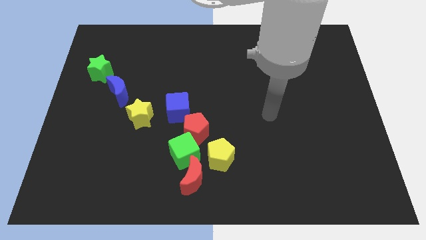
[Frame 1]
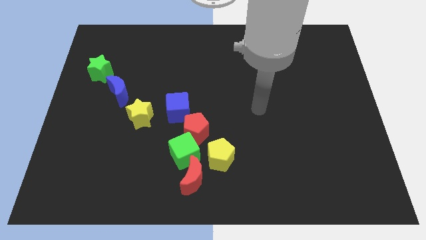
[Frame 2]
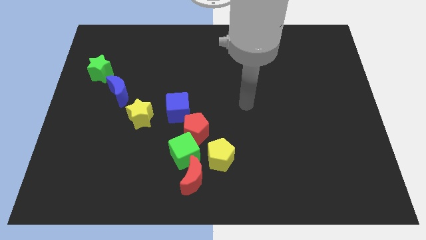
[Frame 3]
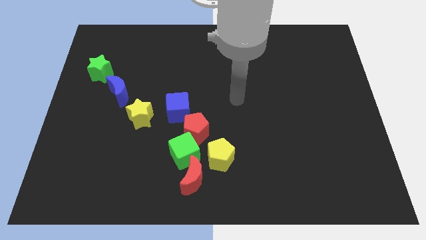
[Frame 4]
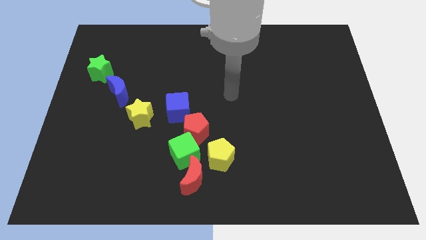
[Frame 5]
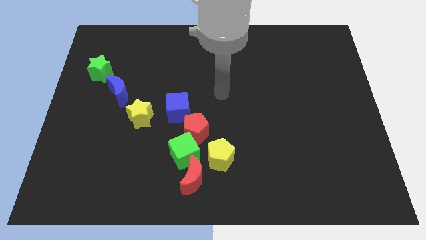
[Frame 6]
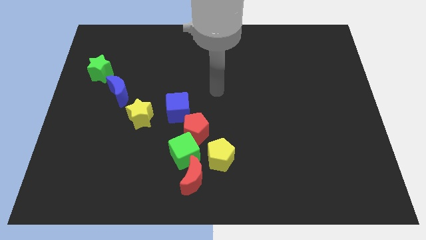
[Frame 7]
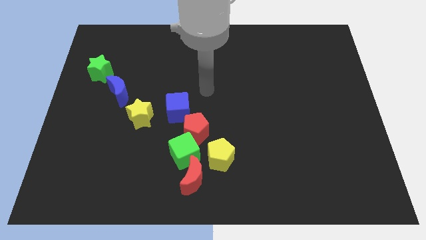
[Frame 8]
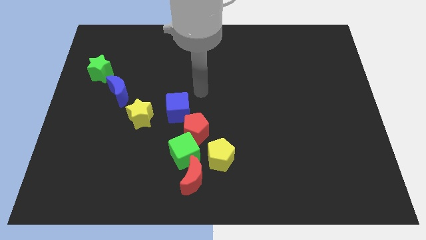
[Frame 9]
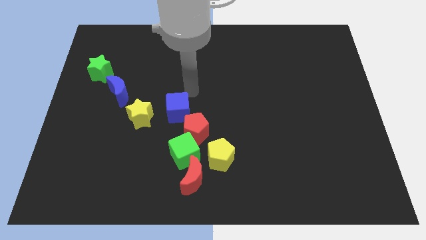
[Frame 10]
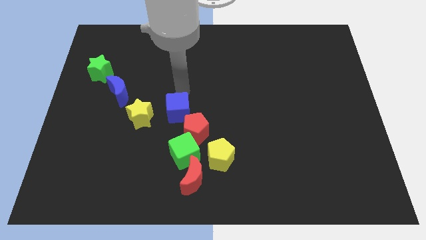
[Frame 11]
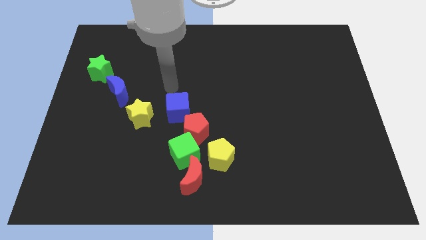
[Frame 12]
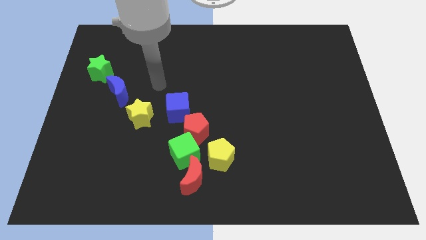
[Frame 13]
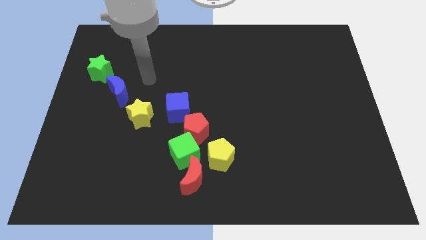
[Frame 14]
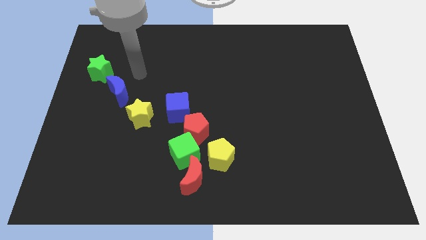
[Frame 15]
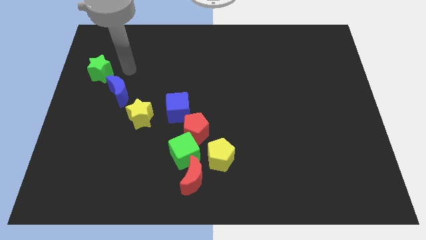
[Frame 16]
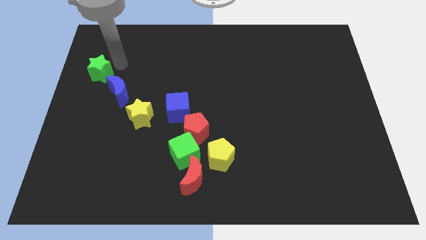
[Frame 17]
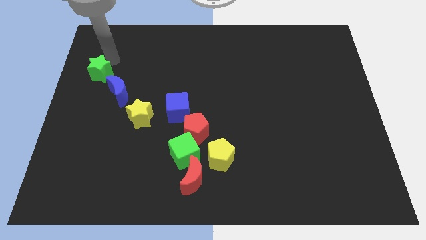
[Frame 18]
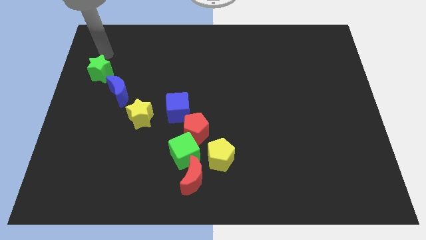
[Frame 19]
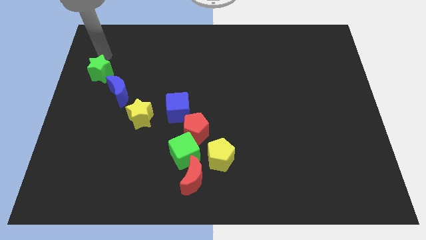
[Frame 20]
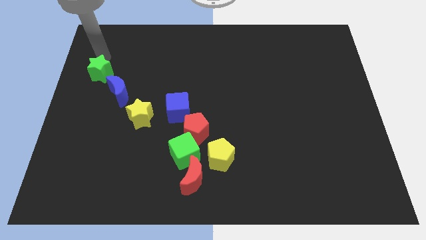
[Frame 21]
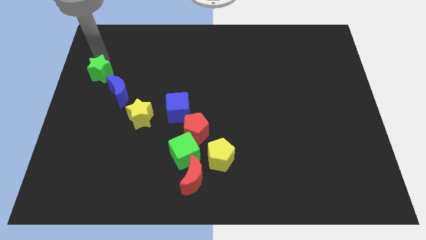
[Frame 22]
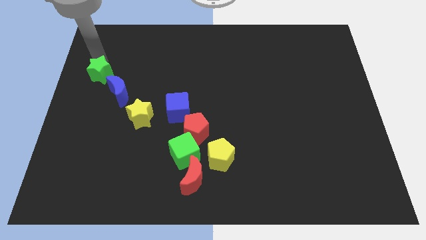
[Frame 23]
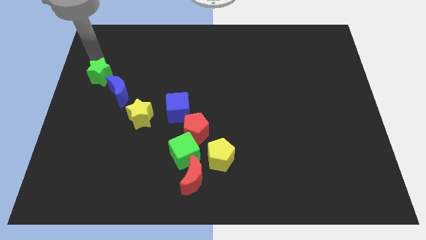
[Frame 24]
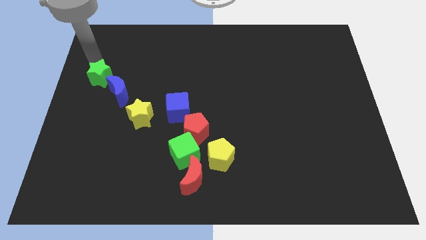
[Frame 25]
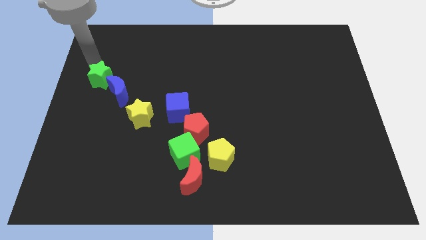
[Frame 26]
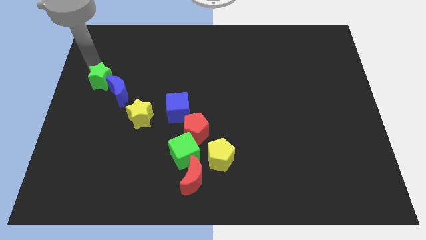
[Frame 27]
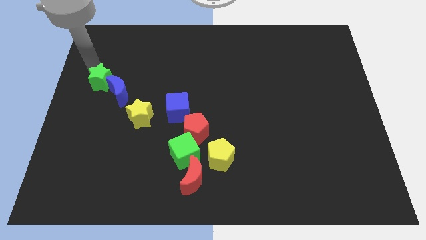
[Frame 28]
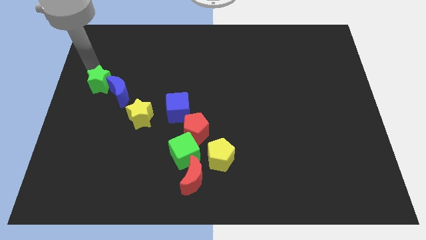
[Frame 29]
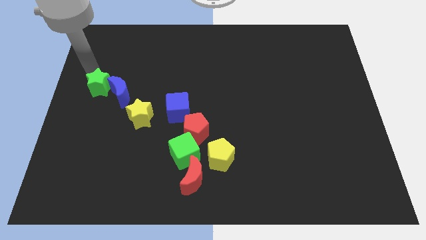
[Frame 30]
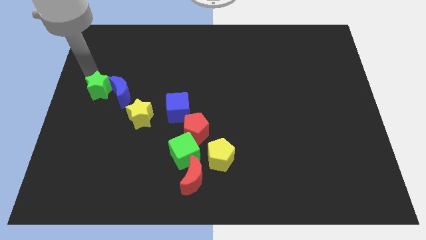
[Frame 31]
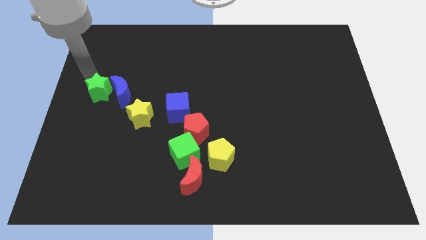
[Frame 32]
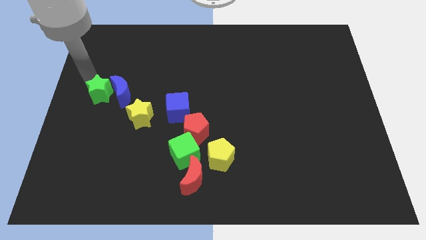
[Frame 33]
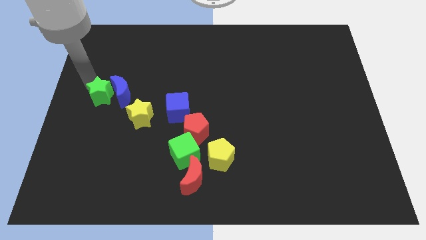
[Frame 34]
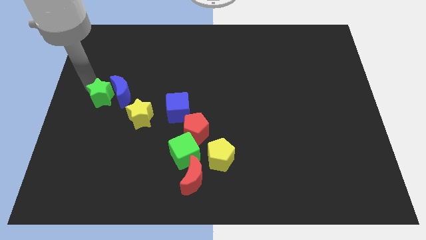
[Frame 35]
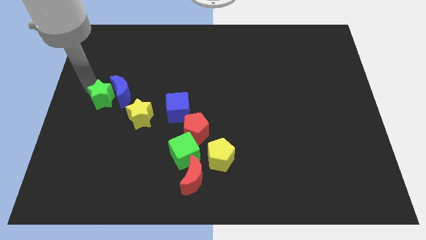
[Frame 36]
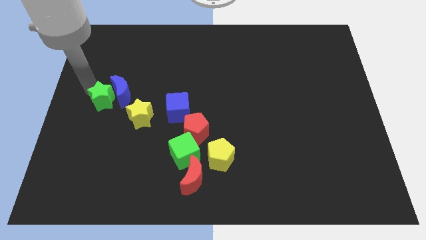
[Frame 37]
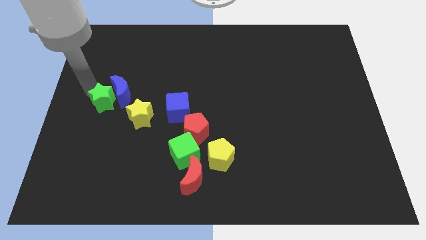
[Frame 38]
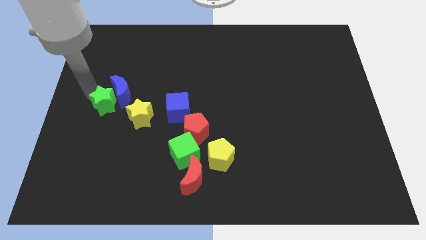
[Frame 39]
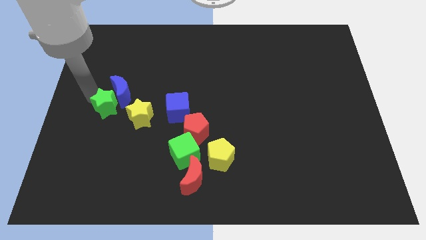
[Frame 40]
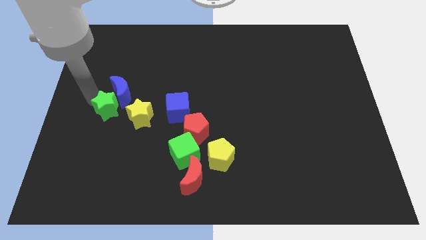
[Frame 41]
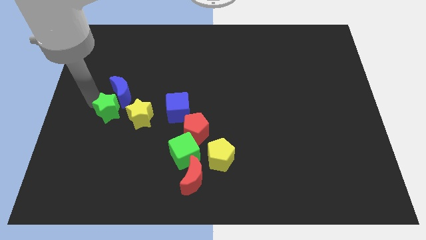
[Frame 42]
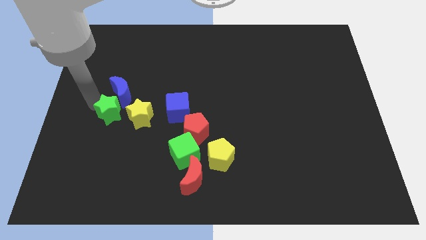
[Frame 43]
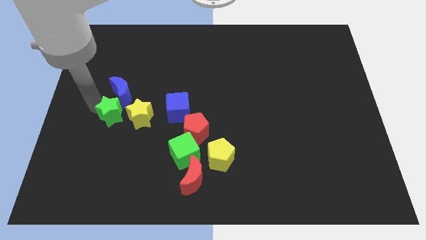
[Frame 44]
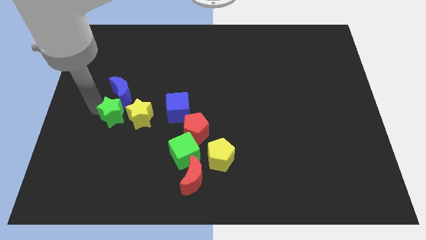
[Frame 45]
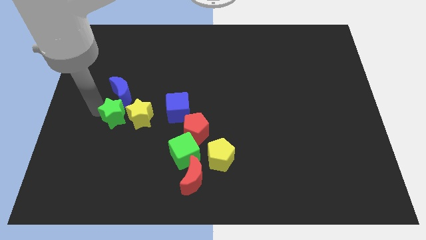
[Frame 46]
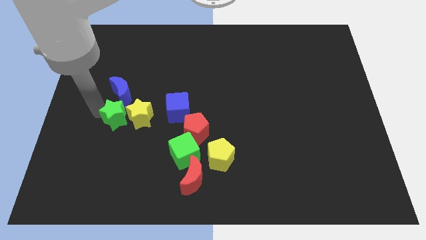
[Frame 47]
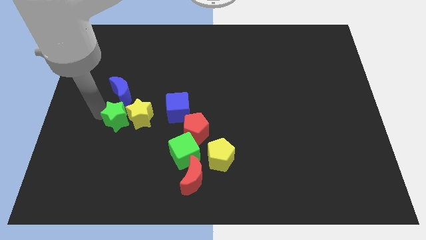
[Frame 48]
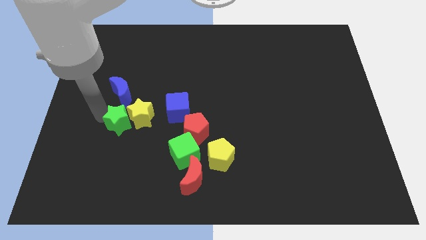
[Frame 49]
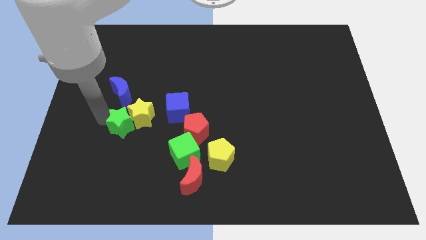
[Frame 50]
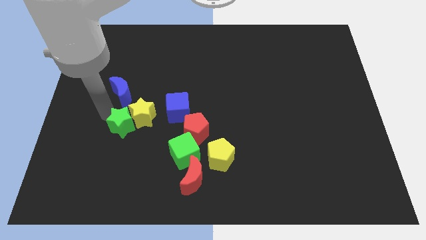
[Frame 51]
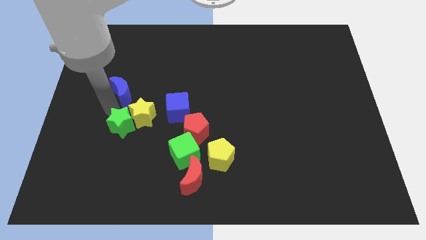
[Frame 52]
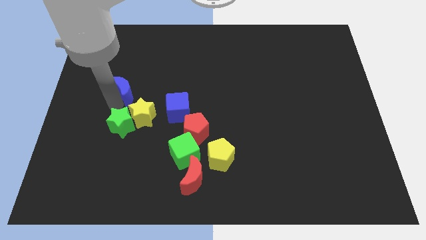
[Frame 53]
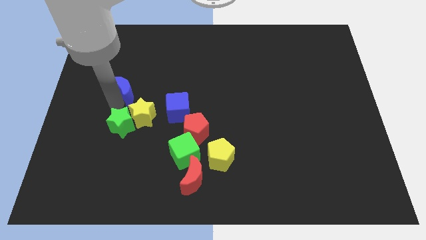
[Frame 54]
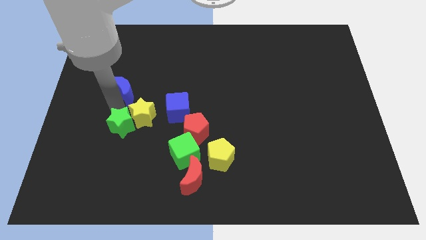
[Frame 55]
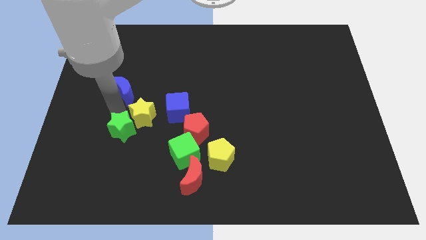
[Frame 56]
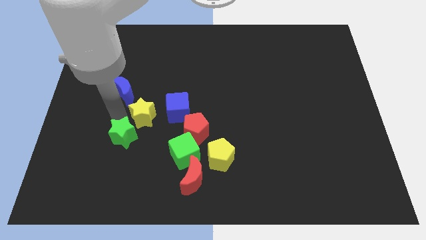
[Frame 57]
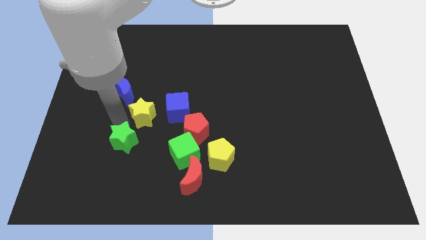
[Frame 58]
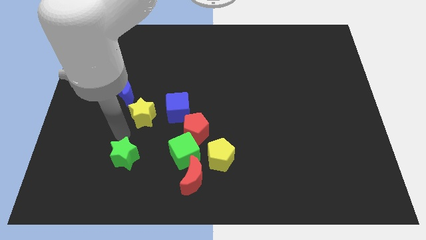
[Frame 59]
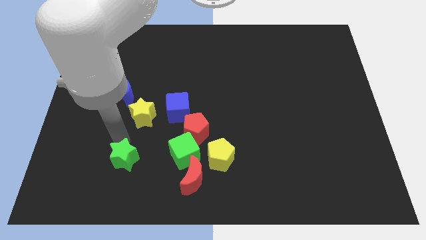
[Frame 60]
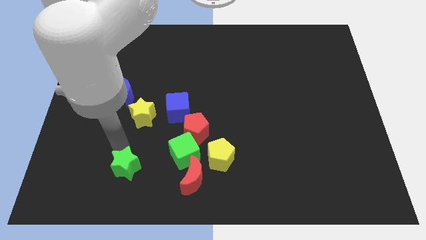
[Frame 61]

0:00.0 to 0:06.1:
push the green star just left of the red moon

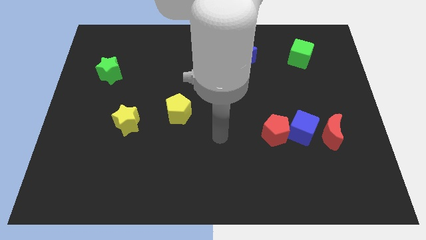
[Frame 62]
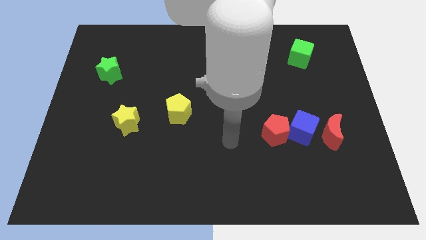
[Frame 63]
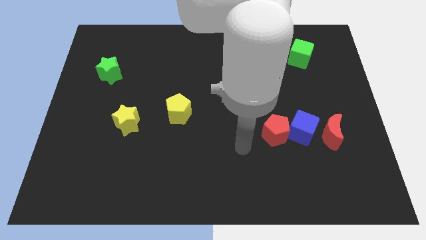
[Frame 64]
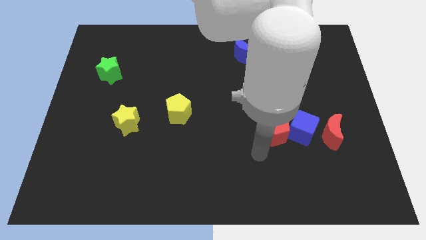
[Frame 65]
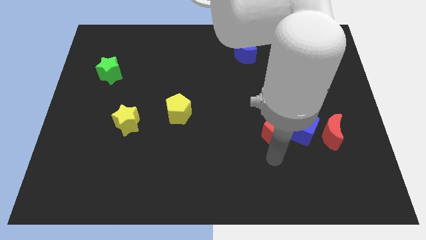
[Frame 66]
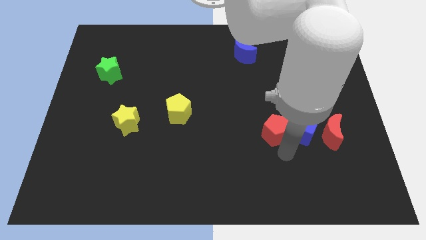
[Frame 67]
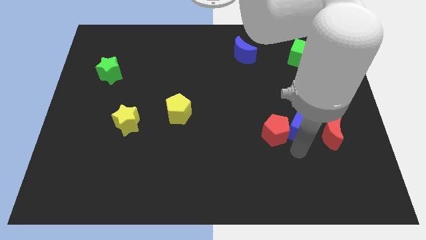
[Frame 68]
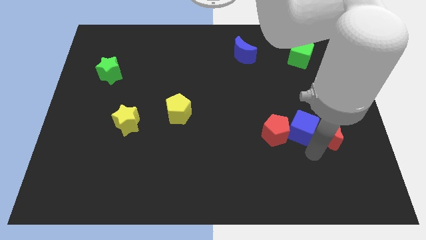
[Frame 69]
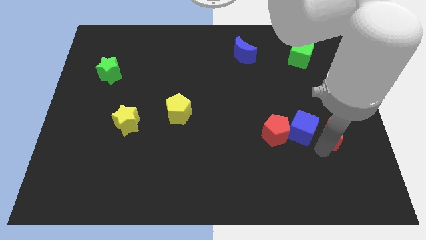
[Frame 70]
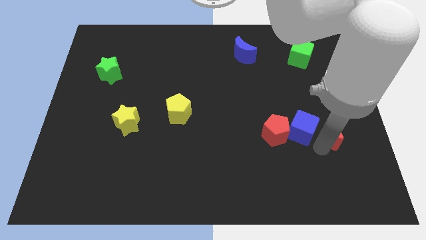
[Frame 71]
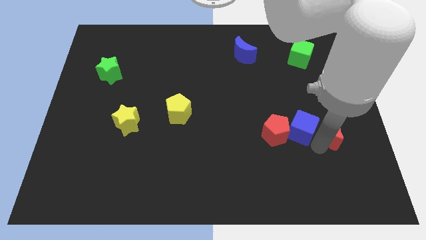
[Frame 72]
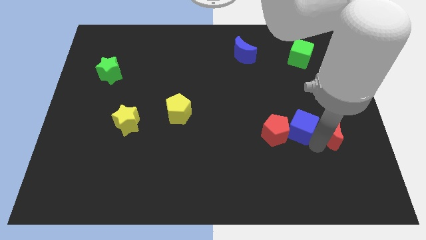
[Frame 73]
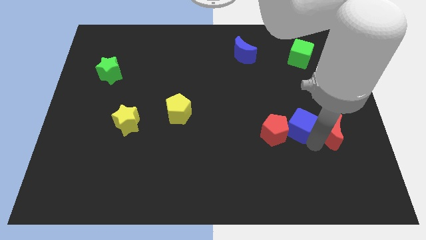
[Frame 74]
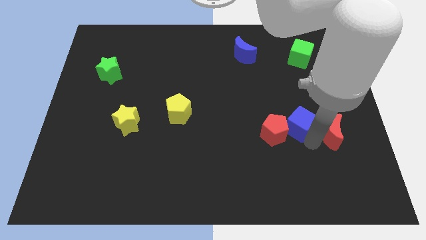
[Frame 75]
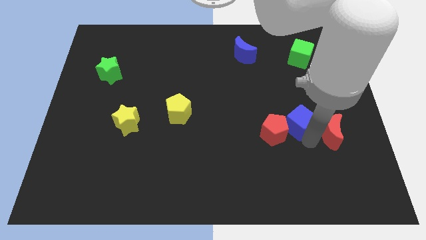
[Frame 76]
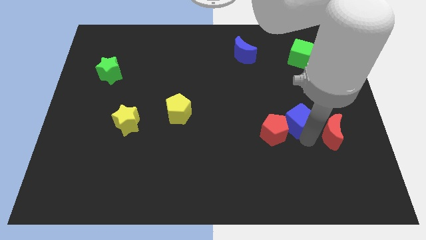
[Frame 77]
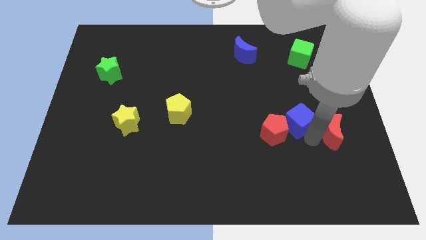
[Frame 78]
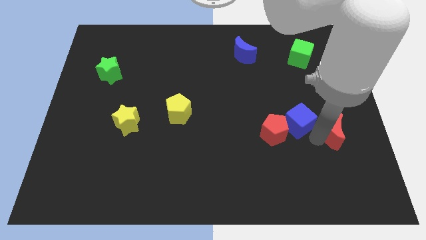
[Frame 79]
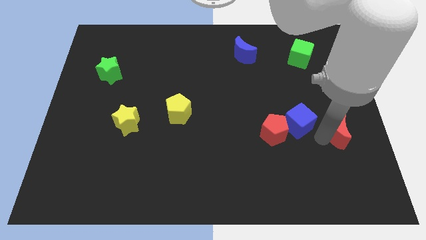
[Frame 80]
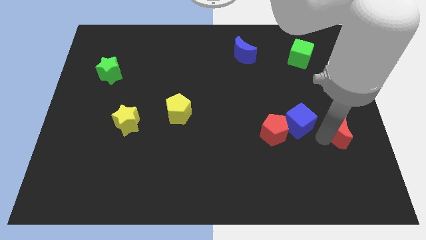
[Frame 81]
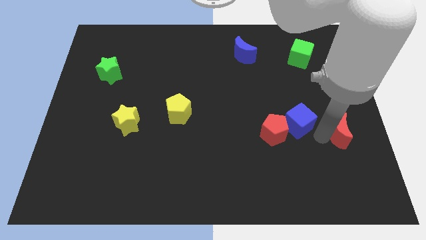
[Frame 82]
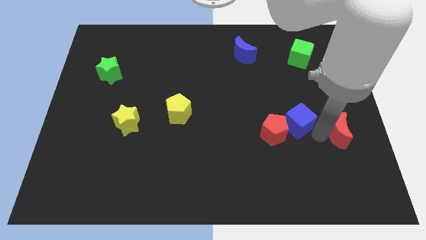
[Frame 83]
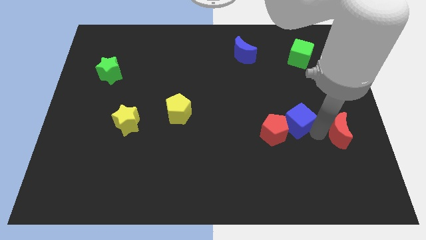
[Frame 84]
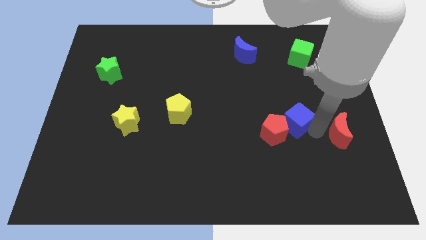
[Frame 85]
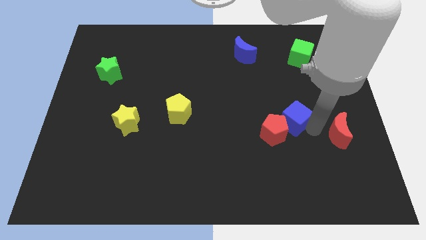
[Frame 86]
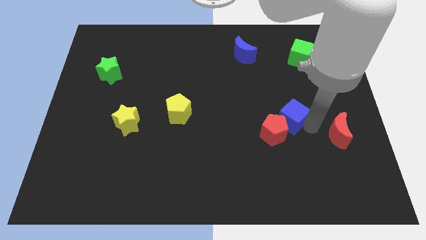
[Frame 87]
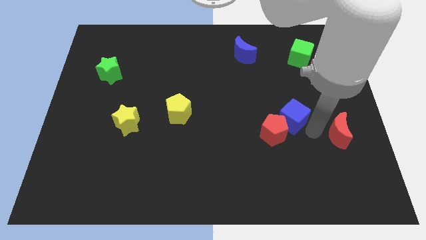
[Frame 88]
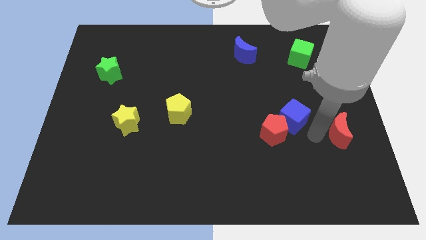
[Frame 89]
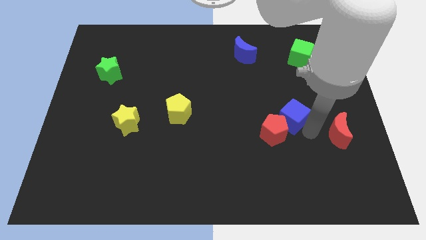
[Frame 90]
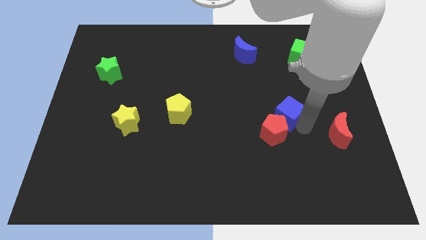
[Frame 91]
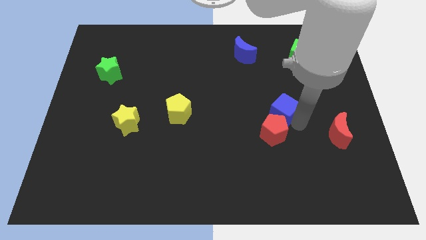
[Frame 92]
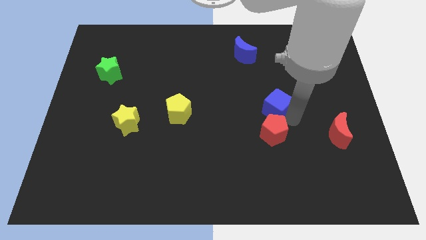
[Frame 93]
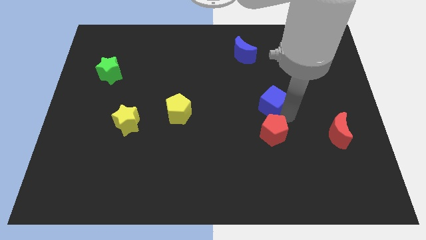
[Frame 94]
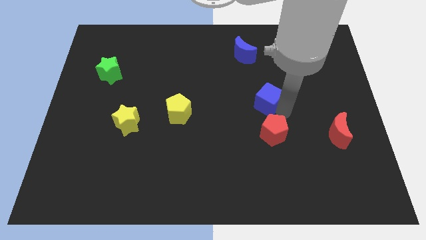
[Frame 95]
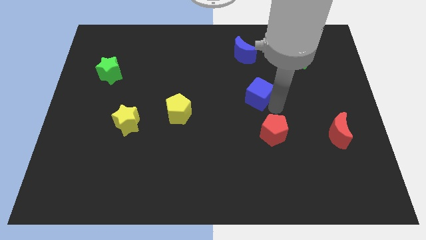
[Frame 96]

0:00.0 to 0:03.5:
slide the blue cube to the bottom of the blue moon
